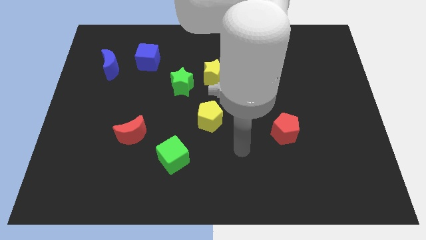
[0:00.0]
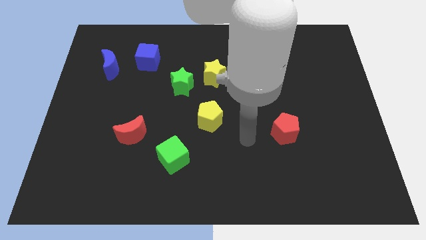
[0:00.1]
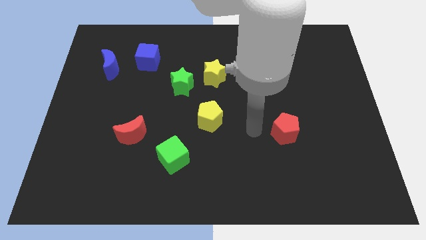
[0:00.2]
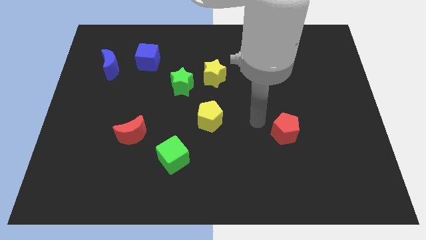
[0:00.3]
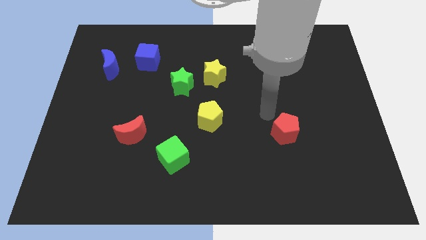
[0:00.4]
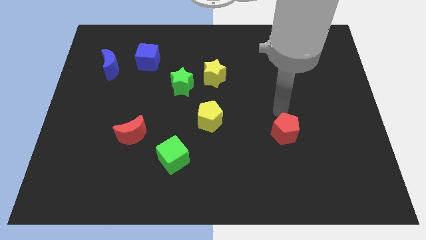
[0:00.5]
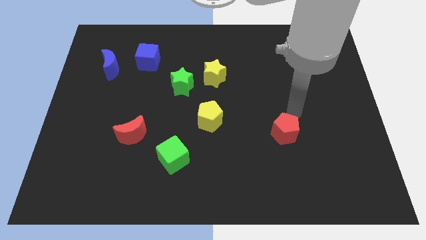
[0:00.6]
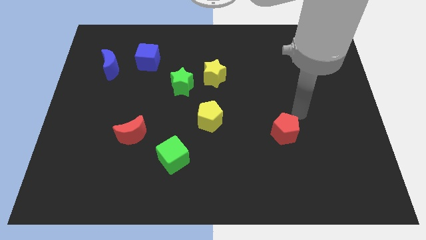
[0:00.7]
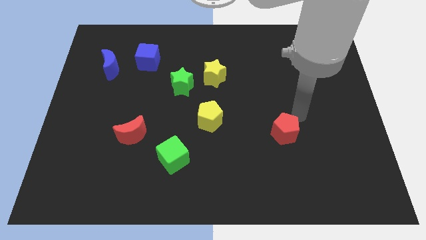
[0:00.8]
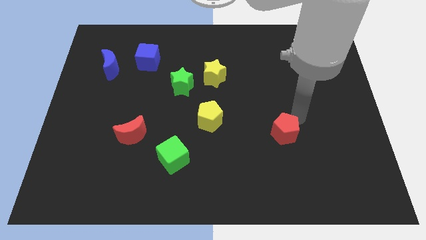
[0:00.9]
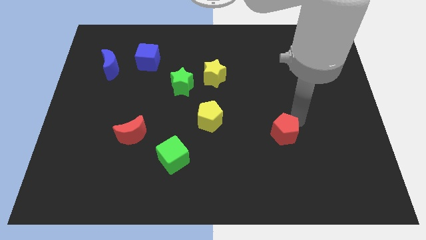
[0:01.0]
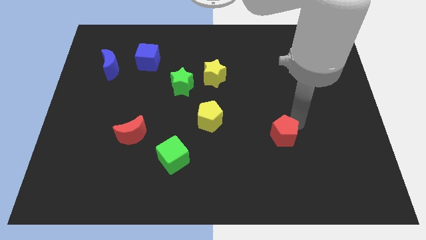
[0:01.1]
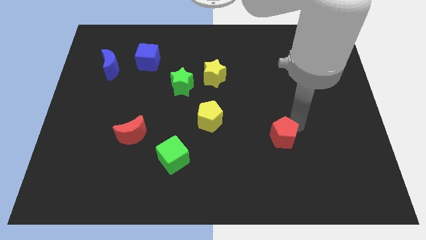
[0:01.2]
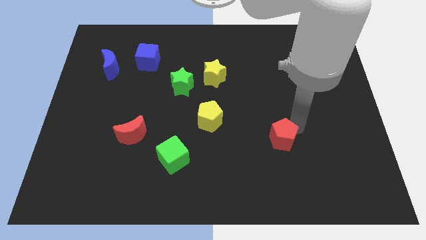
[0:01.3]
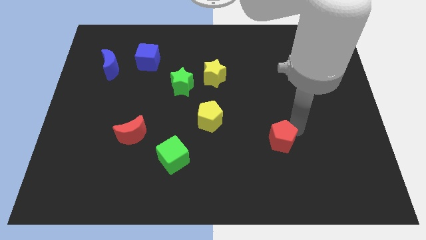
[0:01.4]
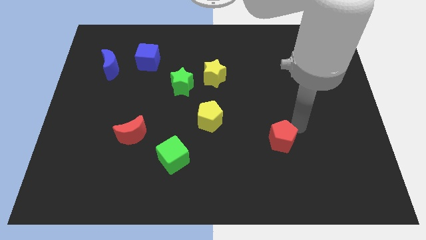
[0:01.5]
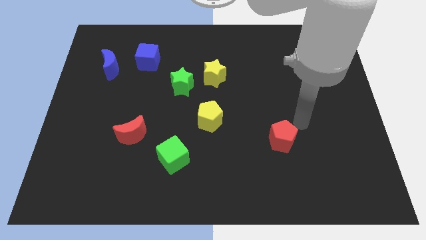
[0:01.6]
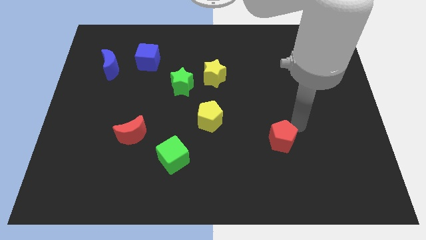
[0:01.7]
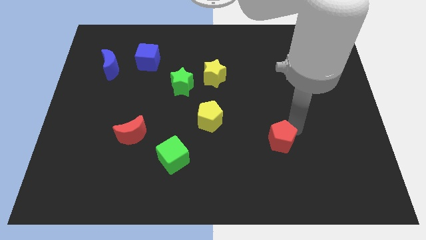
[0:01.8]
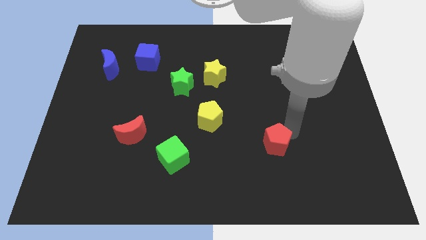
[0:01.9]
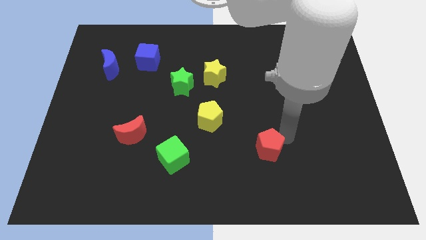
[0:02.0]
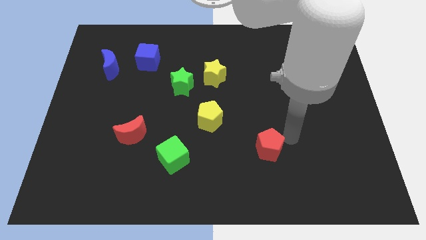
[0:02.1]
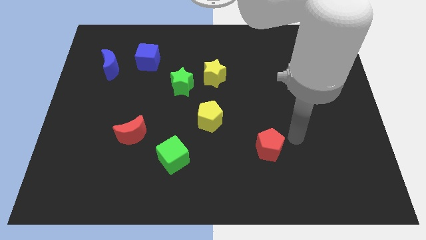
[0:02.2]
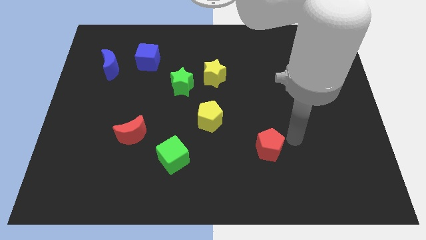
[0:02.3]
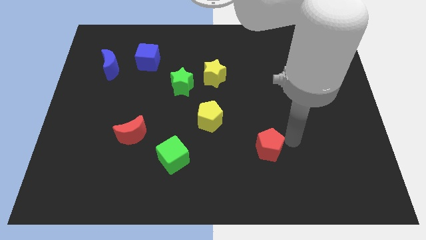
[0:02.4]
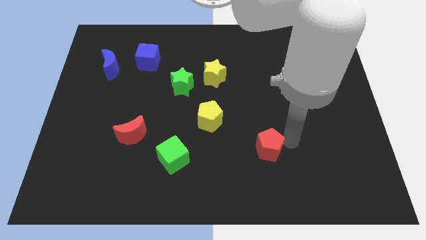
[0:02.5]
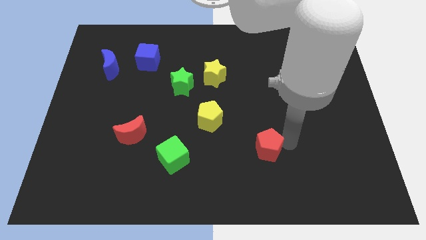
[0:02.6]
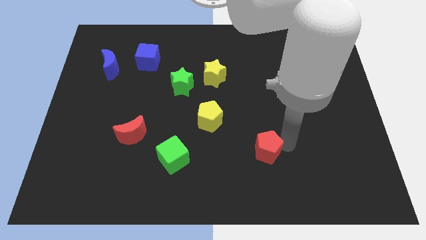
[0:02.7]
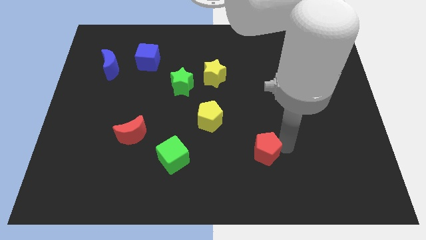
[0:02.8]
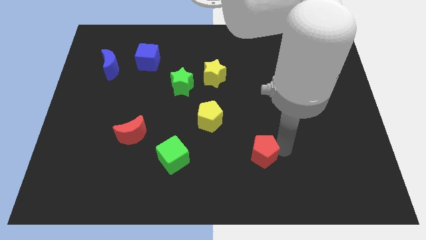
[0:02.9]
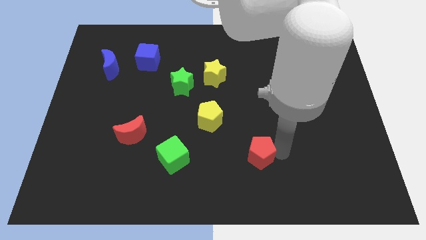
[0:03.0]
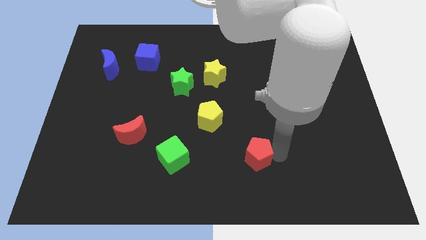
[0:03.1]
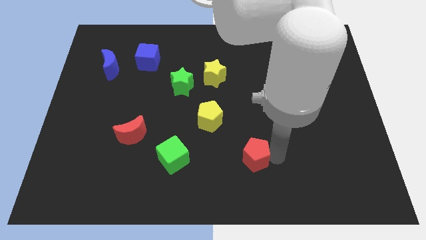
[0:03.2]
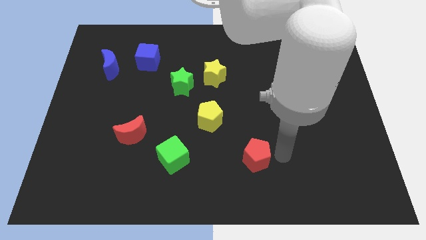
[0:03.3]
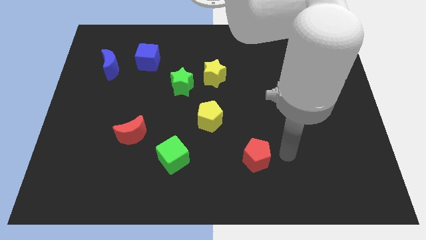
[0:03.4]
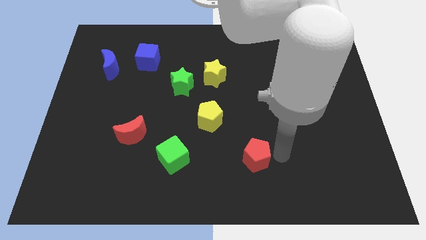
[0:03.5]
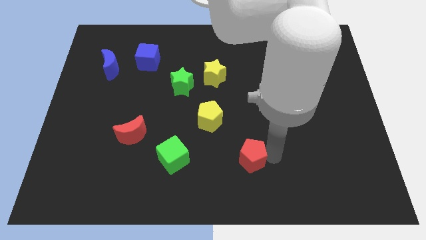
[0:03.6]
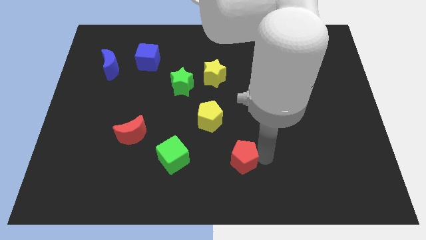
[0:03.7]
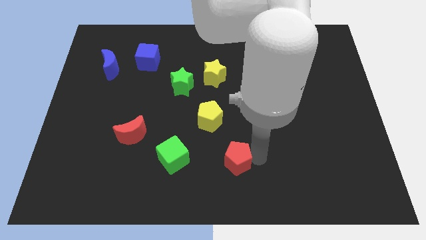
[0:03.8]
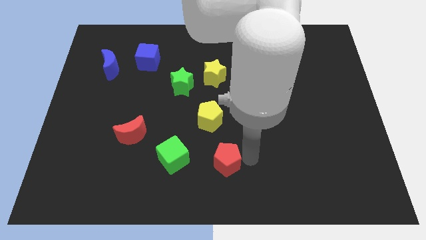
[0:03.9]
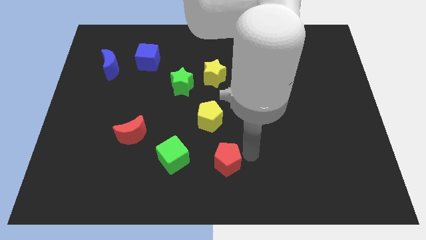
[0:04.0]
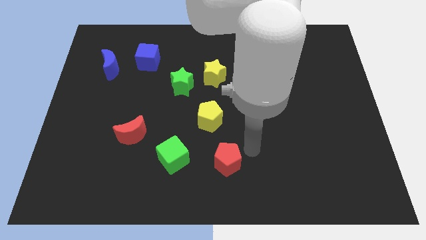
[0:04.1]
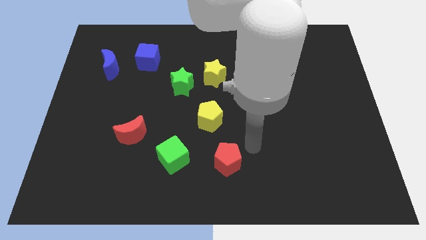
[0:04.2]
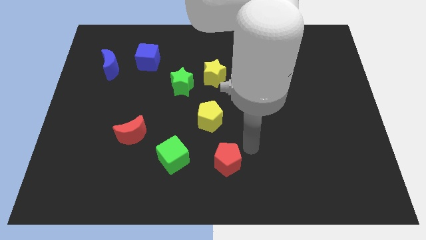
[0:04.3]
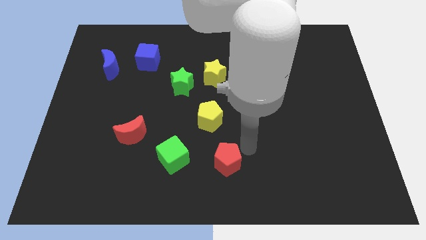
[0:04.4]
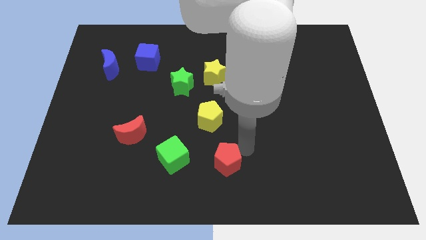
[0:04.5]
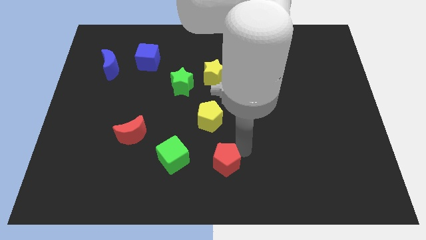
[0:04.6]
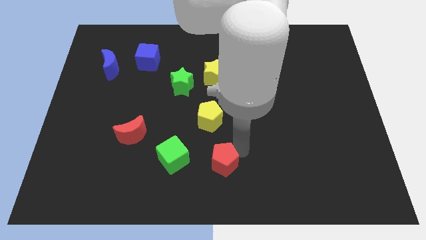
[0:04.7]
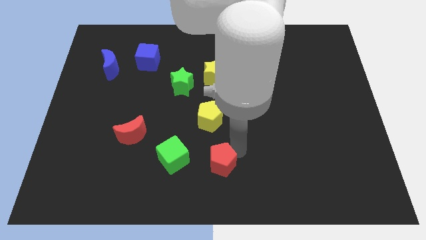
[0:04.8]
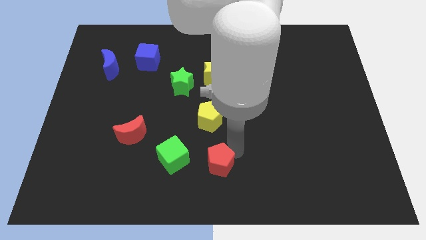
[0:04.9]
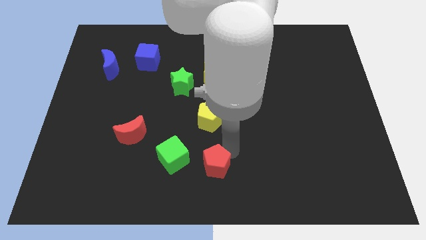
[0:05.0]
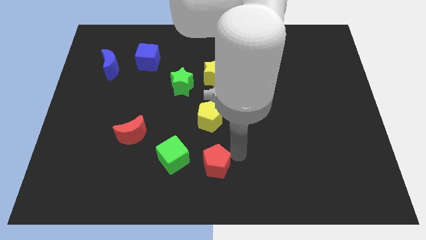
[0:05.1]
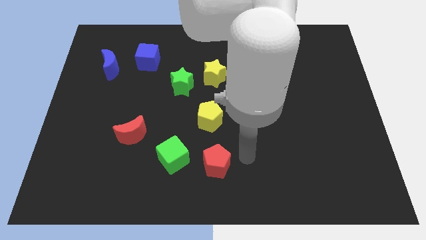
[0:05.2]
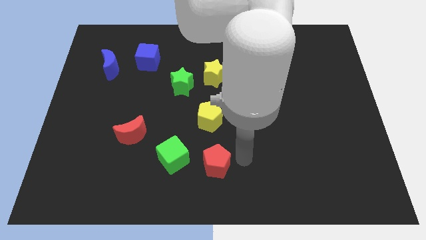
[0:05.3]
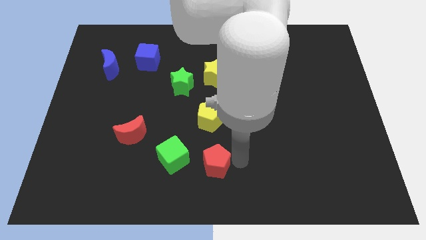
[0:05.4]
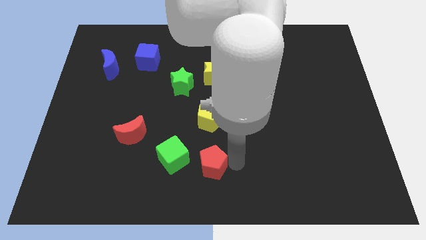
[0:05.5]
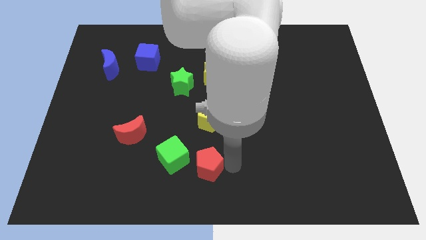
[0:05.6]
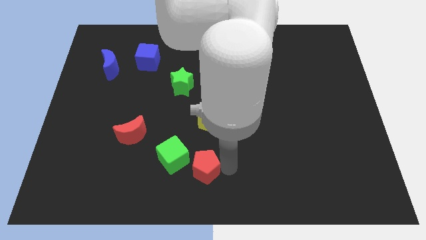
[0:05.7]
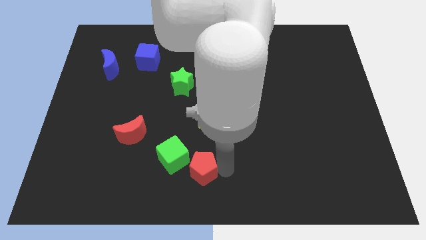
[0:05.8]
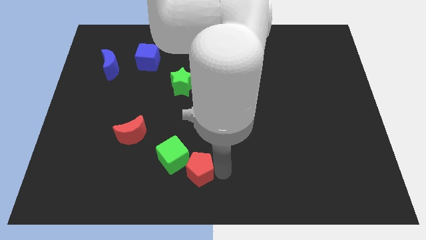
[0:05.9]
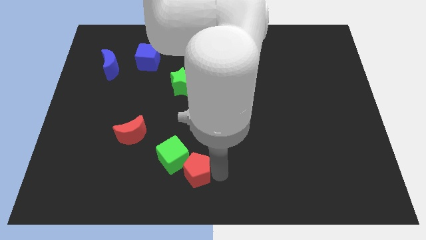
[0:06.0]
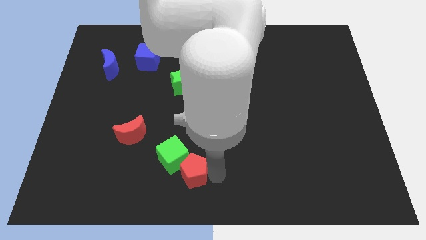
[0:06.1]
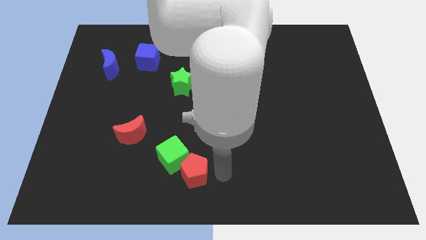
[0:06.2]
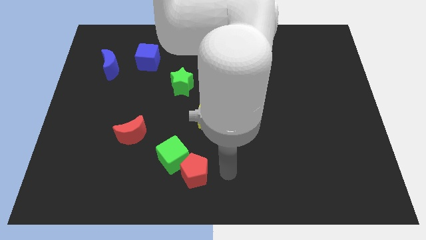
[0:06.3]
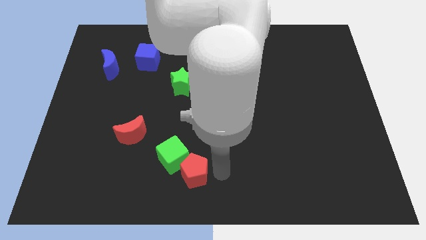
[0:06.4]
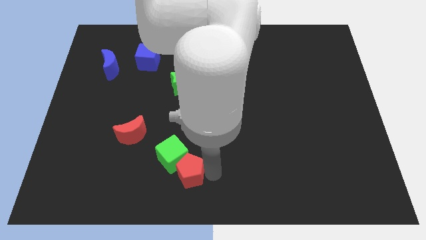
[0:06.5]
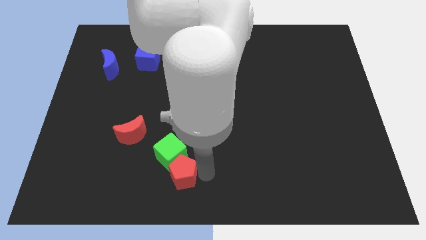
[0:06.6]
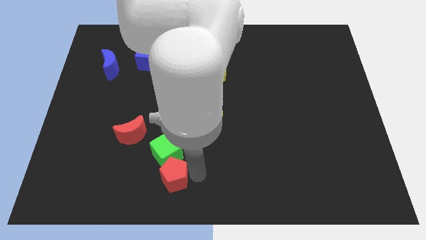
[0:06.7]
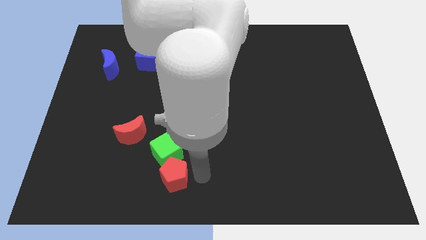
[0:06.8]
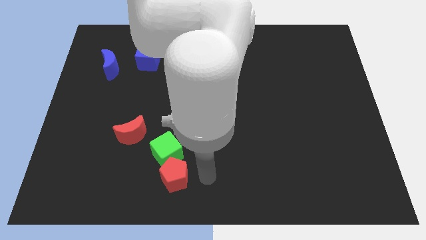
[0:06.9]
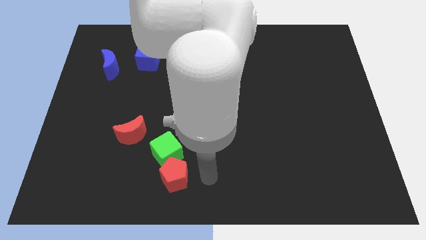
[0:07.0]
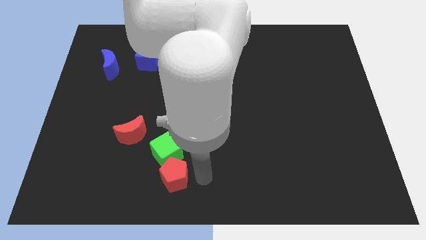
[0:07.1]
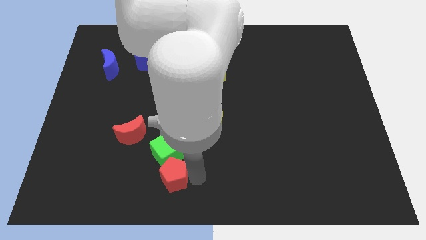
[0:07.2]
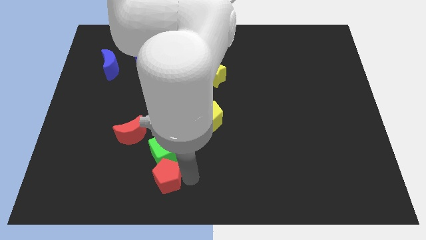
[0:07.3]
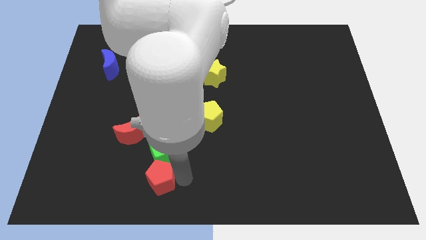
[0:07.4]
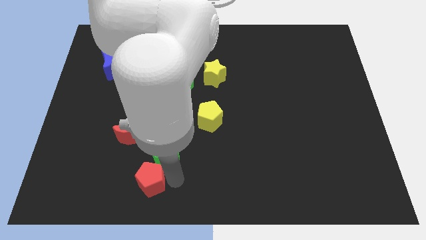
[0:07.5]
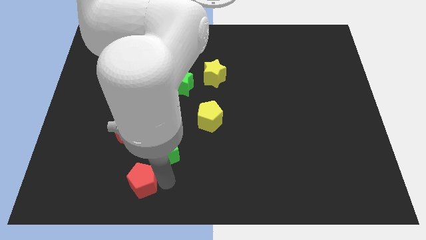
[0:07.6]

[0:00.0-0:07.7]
slide the red pentagon to the bottom side of the red moon
